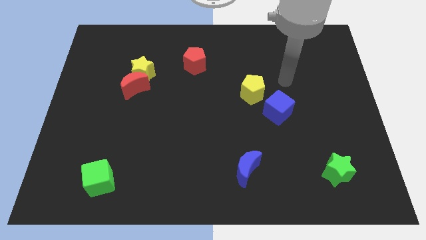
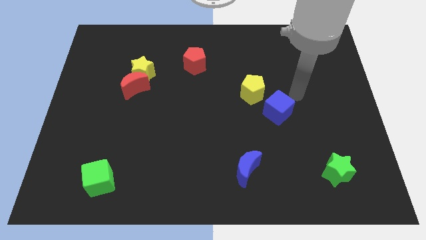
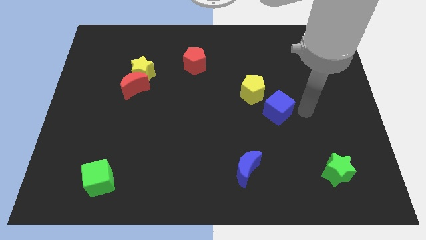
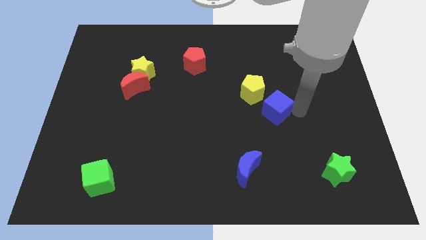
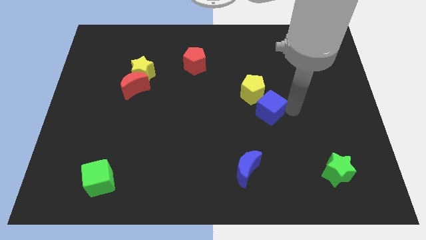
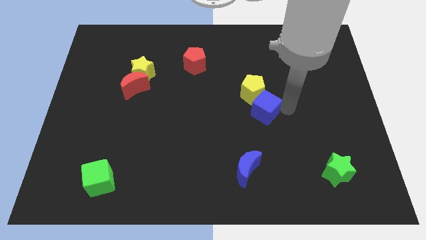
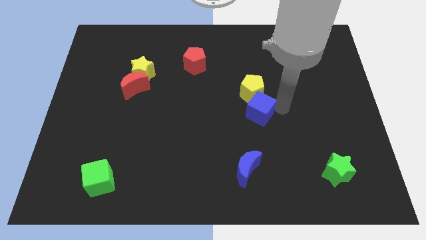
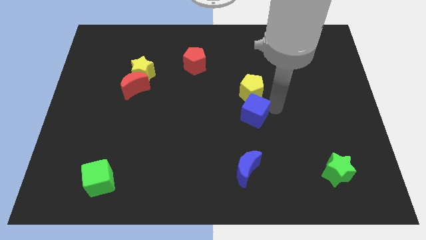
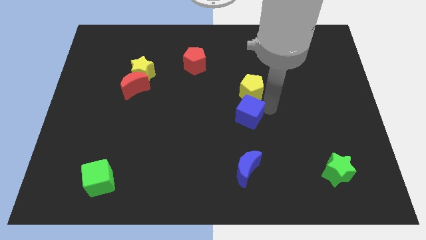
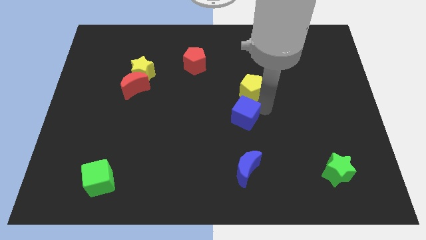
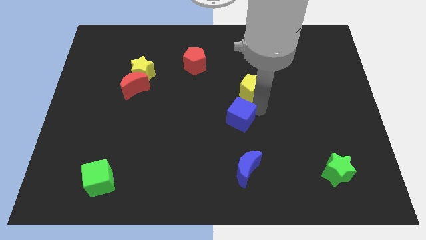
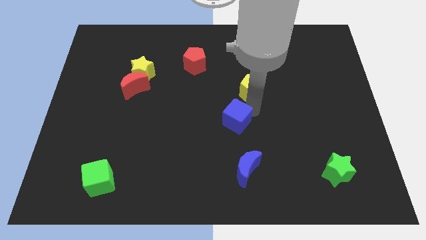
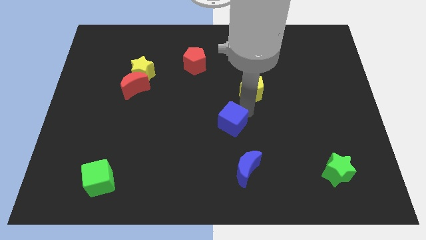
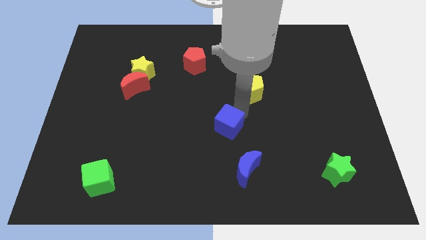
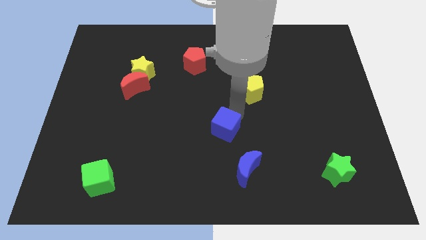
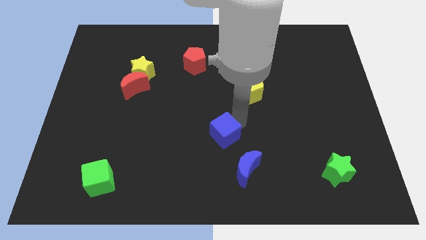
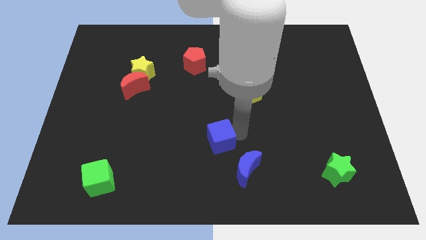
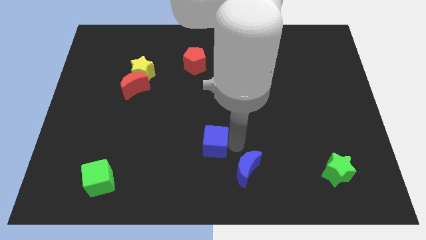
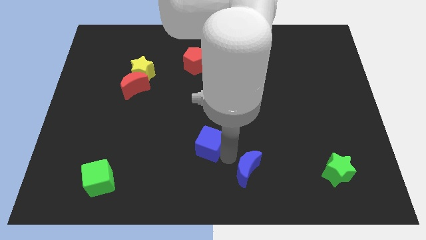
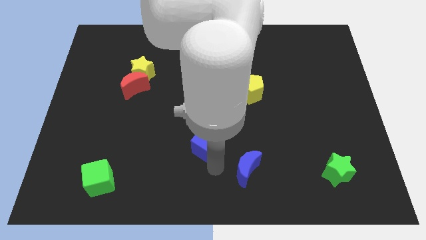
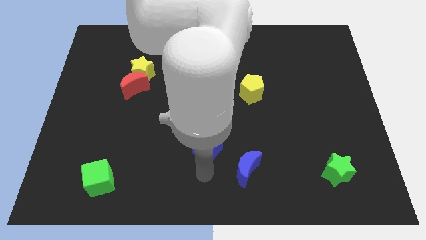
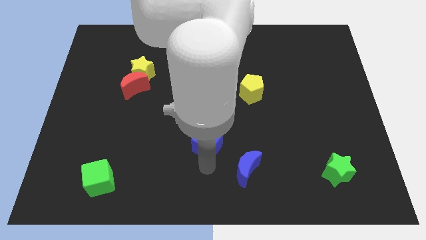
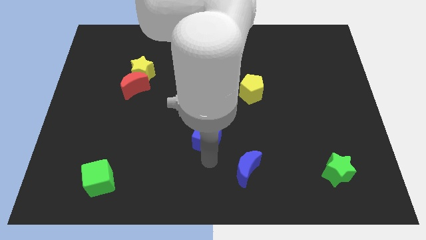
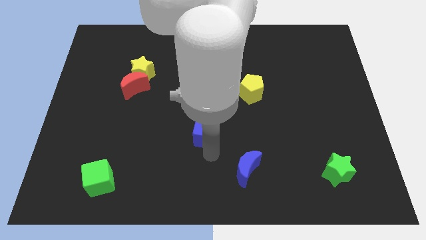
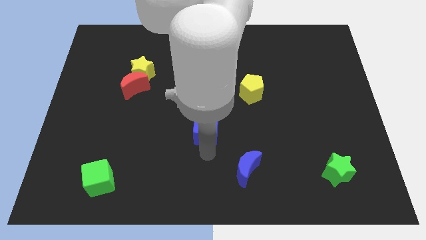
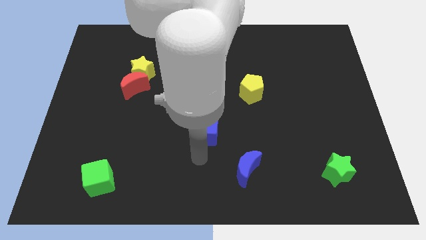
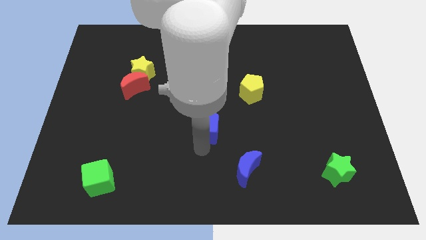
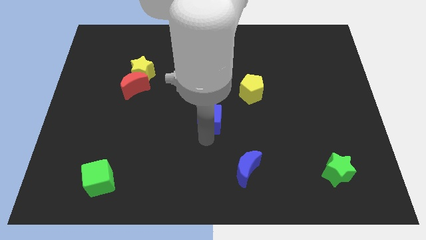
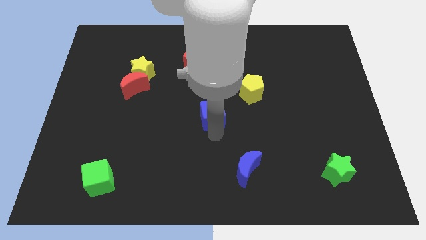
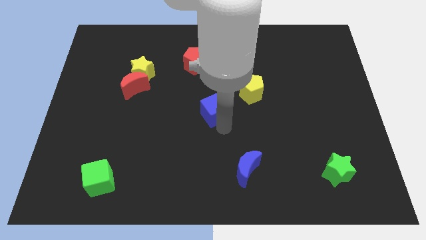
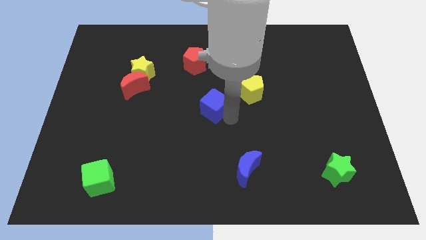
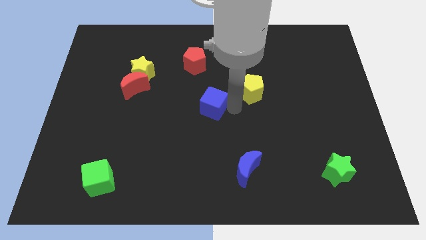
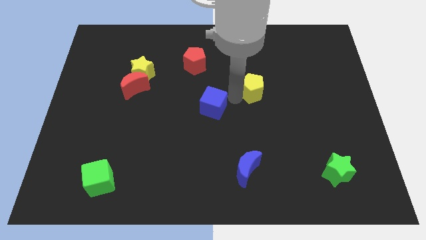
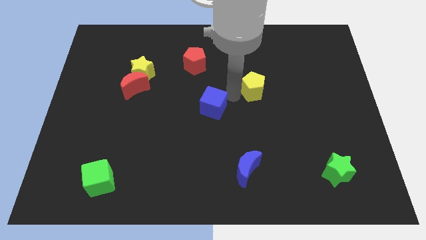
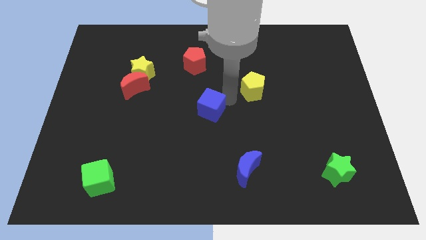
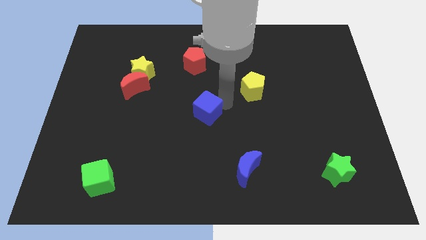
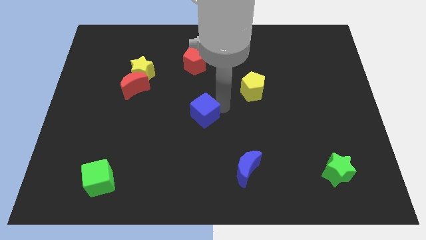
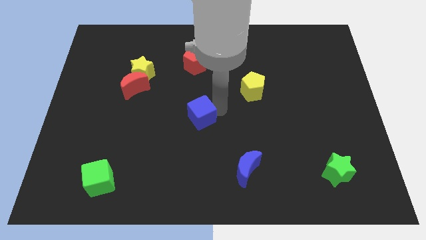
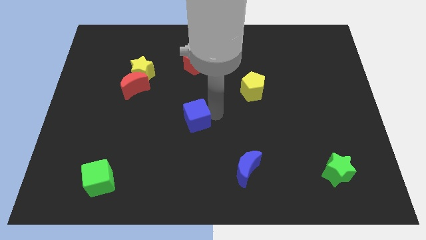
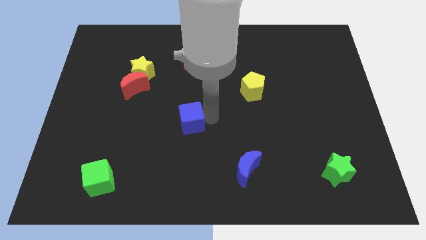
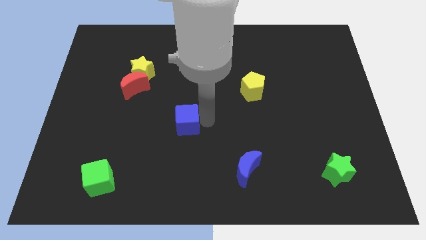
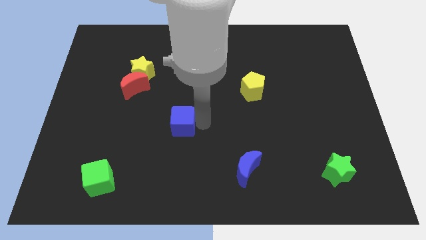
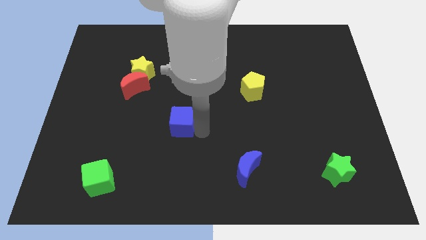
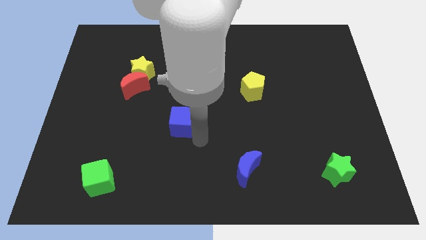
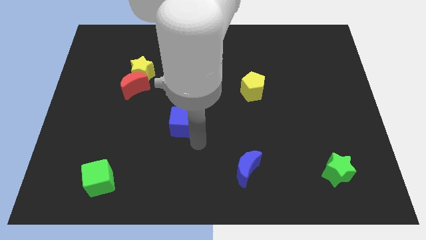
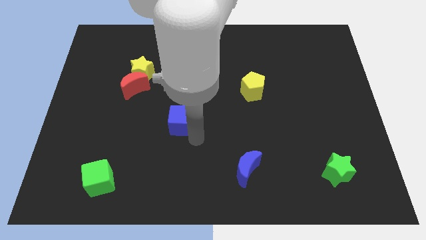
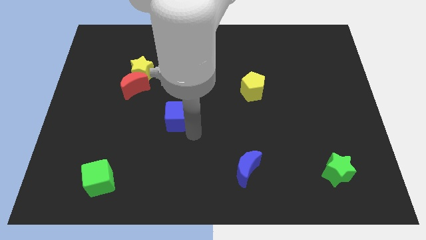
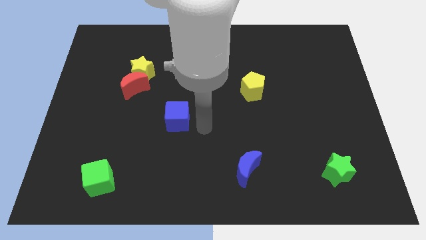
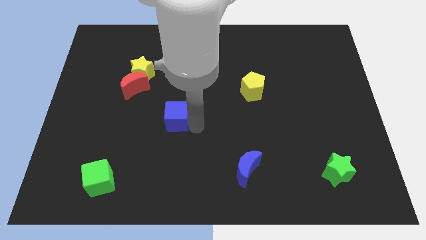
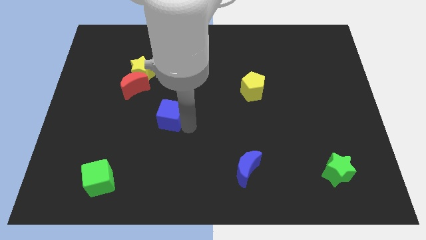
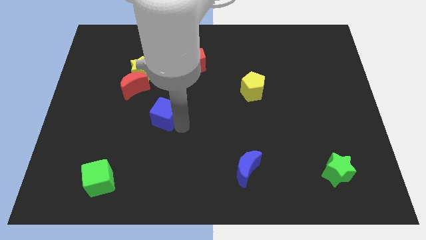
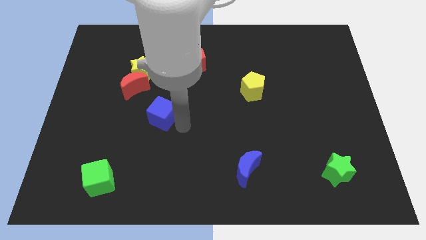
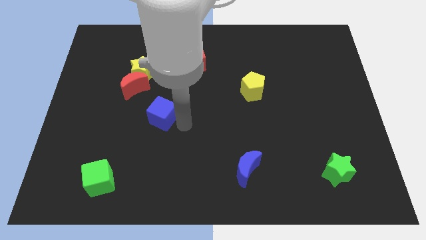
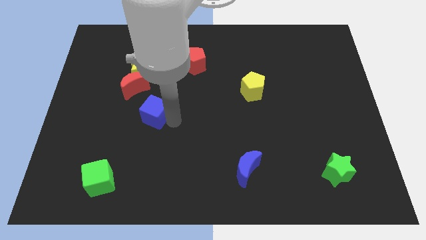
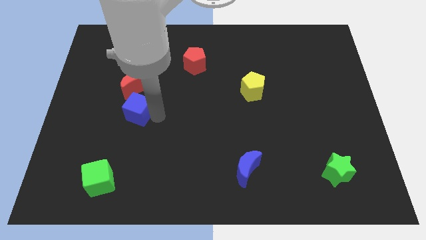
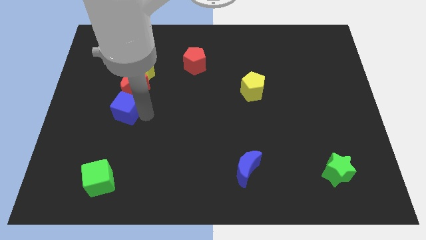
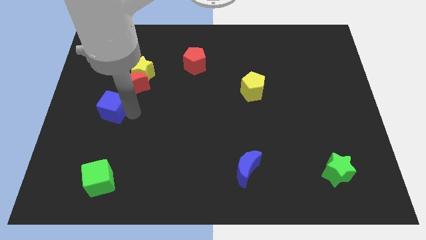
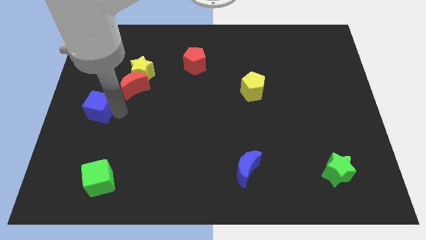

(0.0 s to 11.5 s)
push the blue cube to the left side

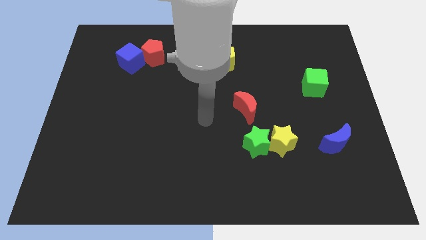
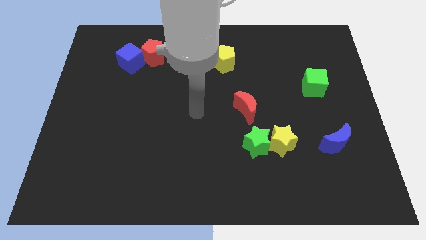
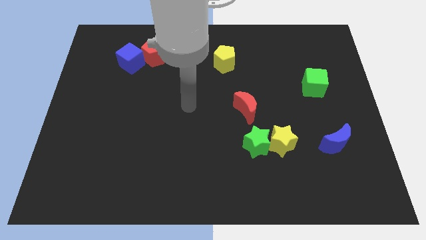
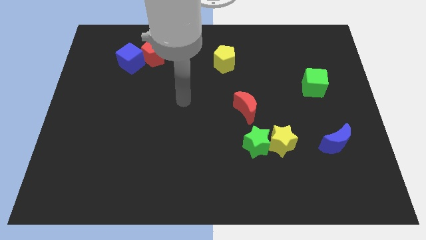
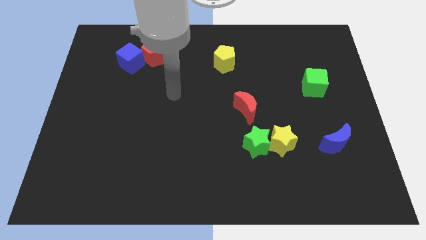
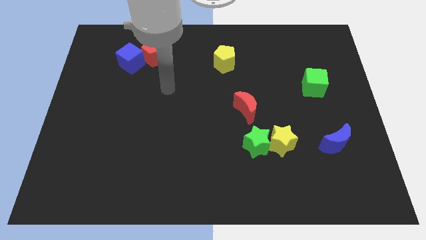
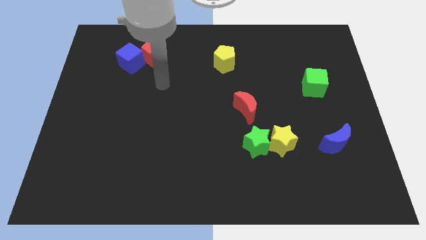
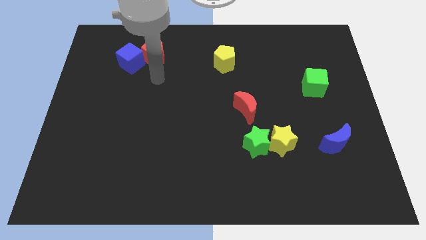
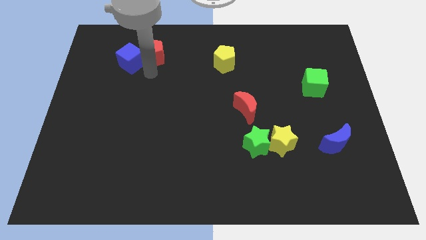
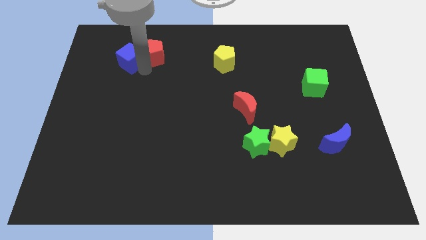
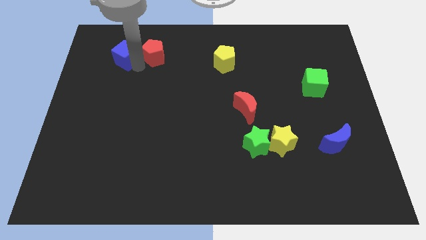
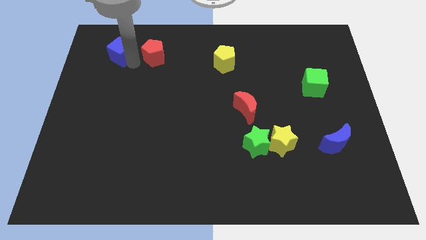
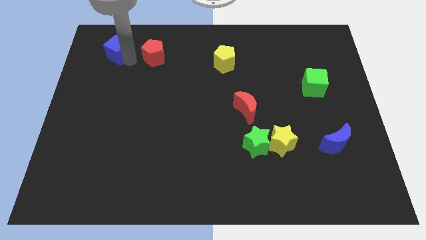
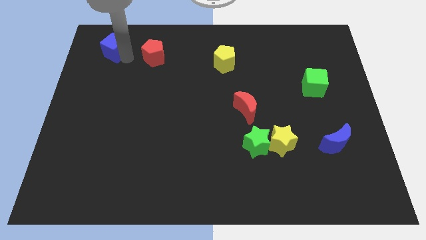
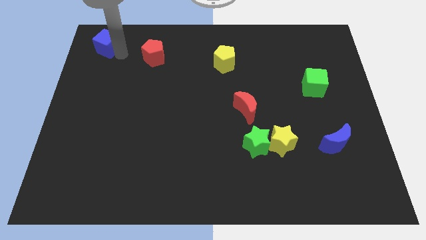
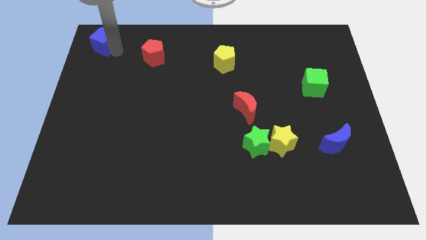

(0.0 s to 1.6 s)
slide the blue cube to the upper left corner
